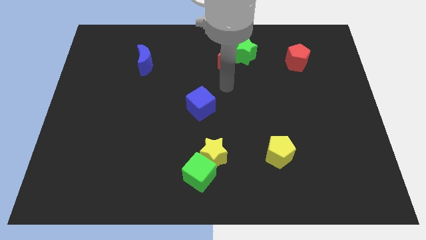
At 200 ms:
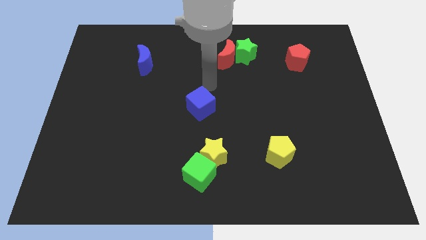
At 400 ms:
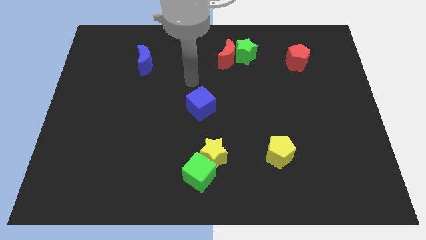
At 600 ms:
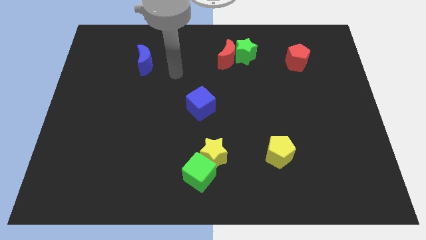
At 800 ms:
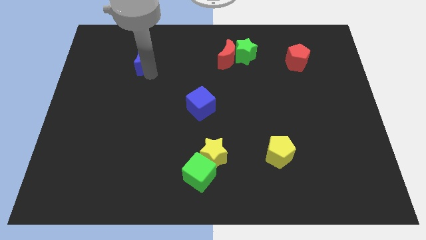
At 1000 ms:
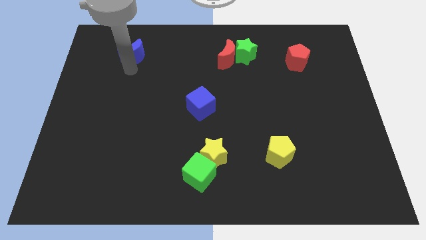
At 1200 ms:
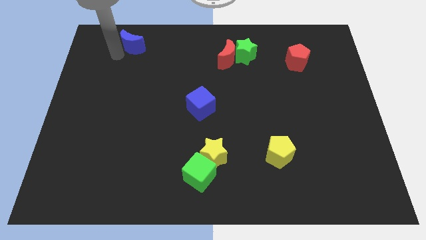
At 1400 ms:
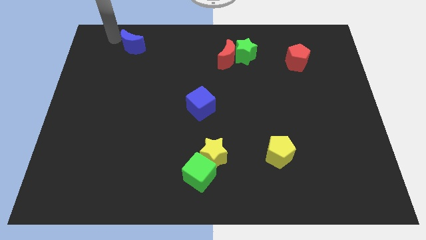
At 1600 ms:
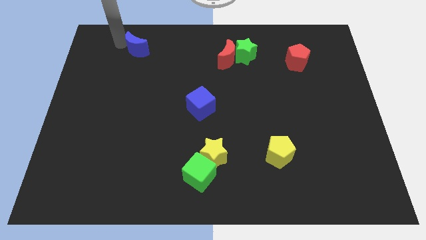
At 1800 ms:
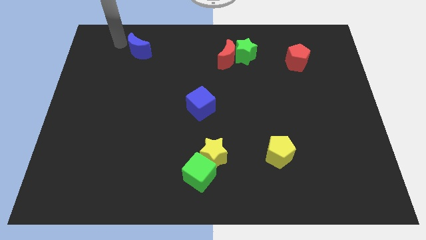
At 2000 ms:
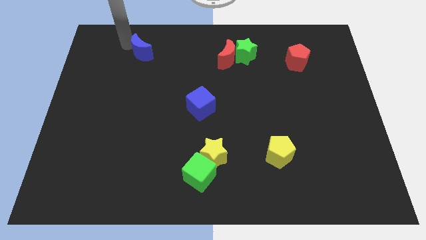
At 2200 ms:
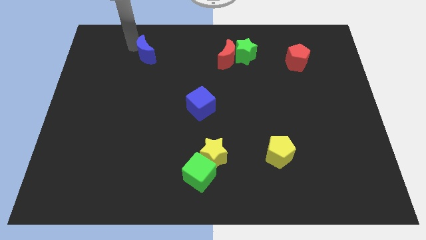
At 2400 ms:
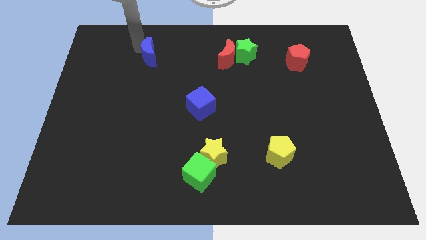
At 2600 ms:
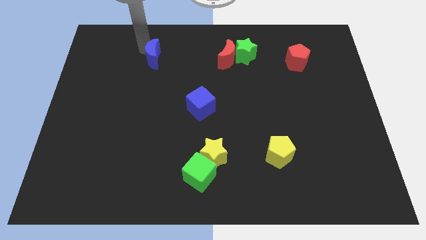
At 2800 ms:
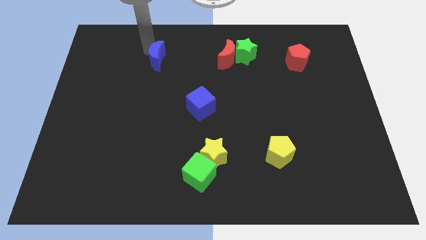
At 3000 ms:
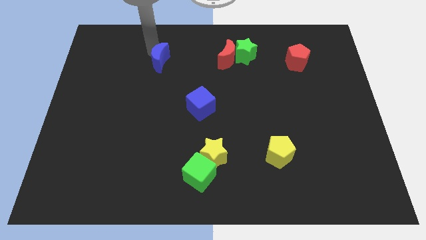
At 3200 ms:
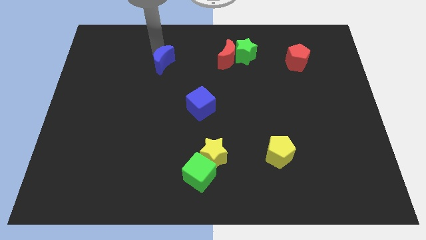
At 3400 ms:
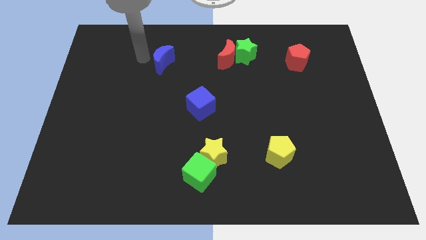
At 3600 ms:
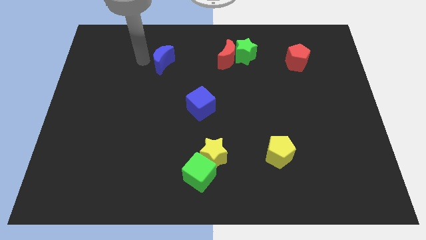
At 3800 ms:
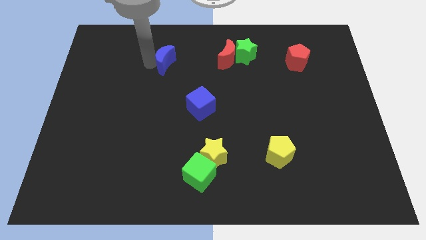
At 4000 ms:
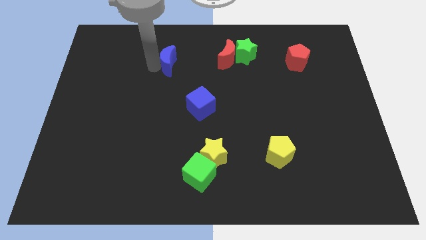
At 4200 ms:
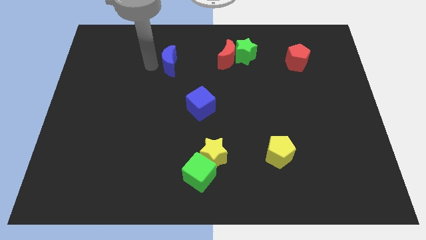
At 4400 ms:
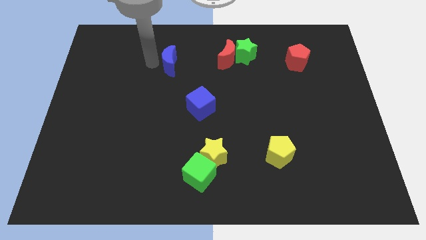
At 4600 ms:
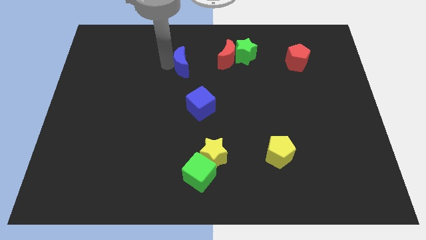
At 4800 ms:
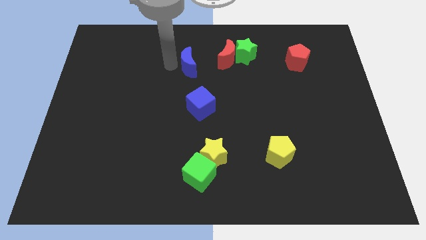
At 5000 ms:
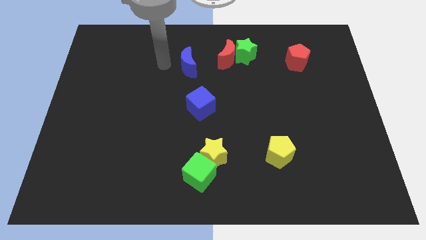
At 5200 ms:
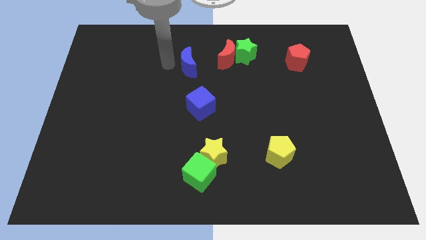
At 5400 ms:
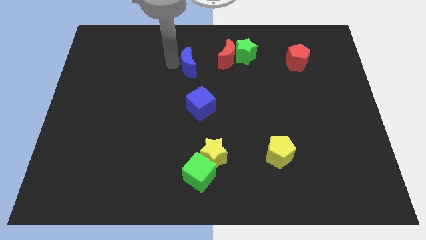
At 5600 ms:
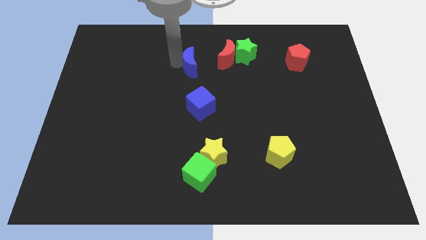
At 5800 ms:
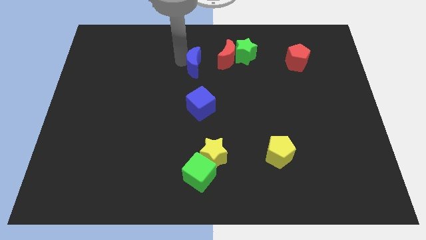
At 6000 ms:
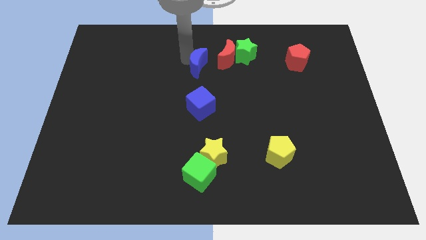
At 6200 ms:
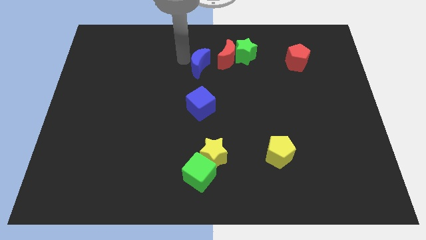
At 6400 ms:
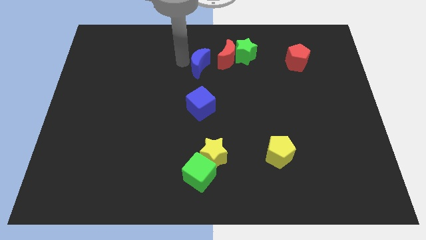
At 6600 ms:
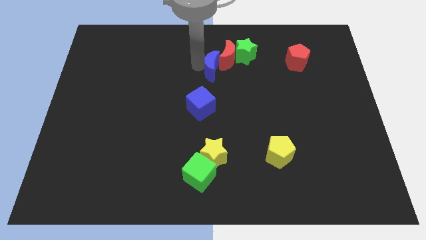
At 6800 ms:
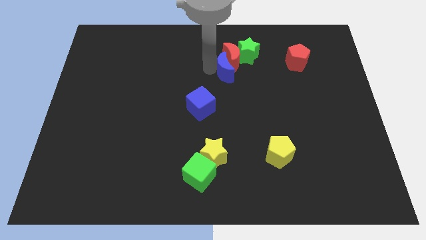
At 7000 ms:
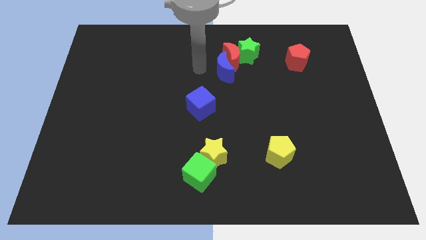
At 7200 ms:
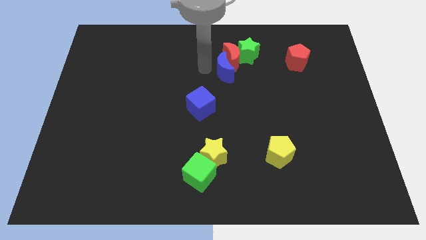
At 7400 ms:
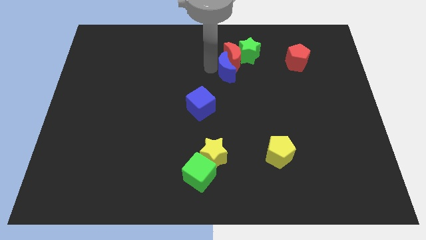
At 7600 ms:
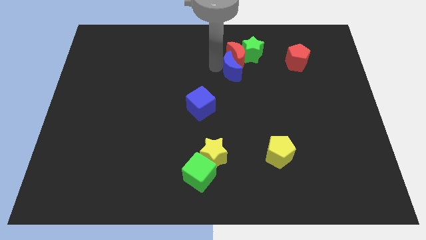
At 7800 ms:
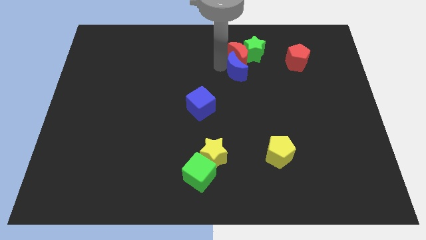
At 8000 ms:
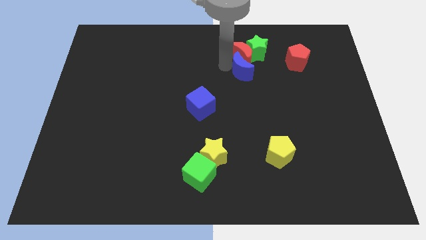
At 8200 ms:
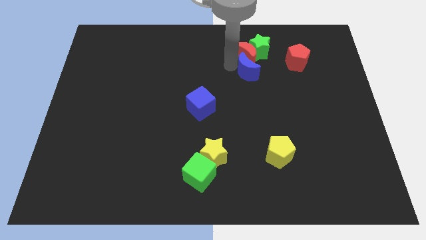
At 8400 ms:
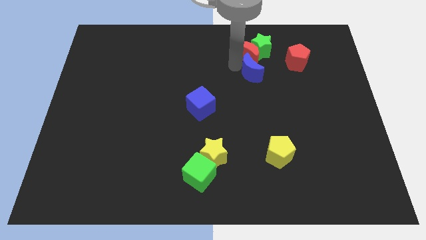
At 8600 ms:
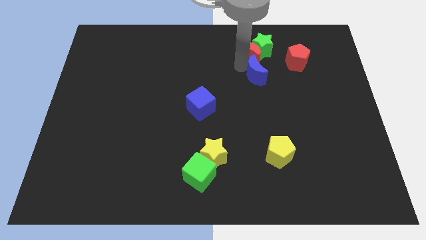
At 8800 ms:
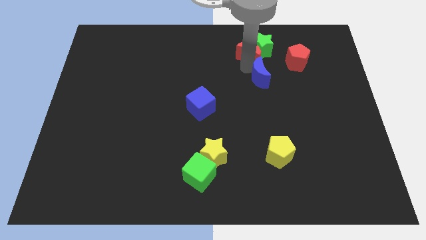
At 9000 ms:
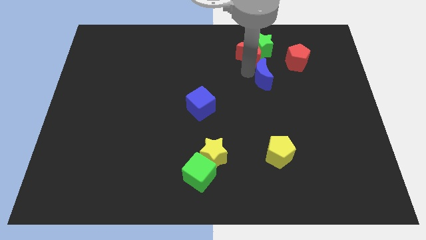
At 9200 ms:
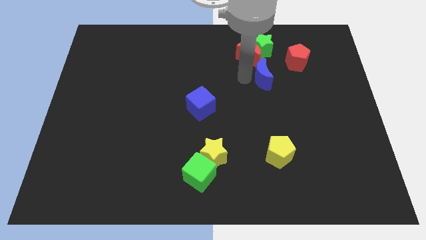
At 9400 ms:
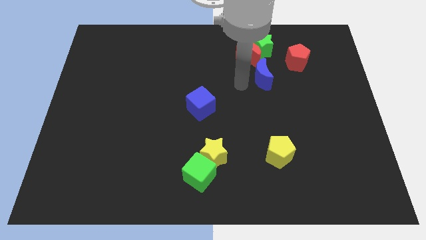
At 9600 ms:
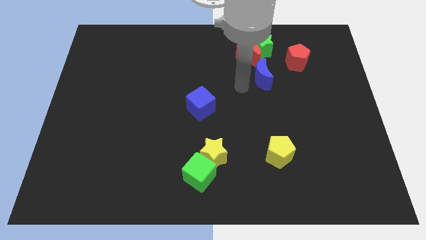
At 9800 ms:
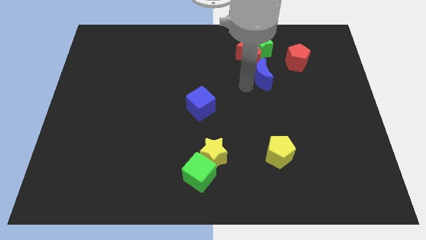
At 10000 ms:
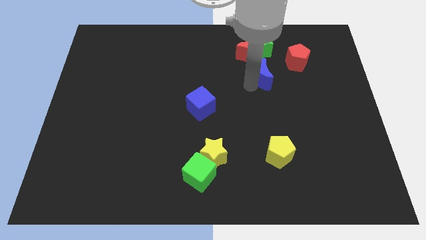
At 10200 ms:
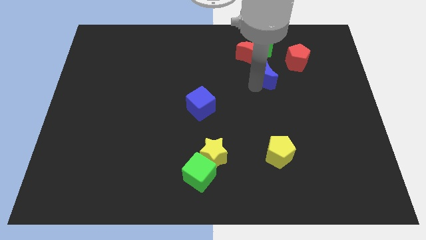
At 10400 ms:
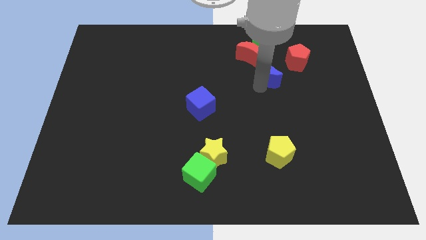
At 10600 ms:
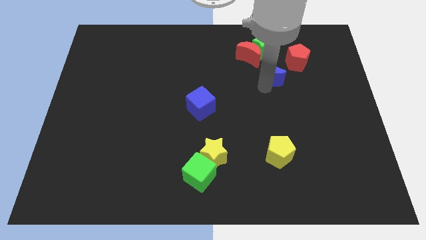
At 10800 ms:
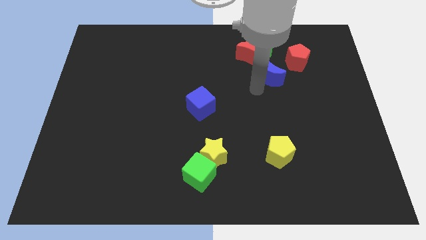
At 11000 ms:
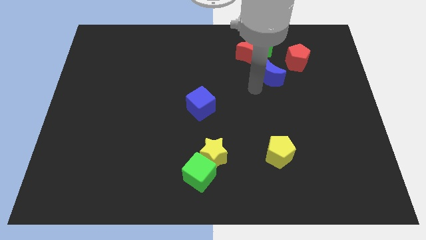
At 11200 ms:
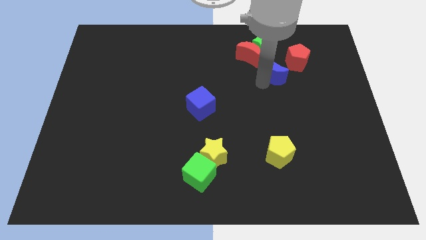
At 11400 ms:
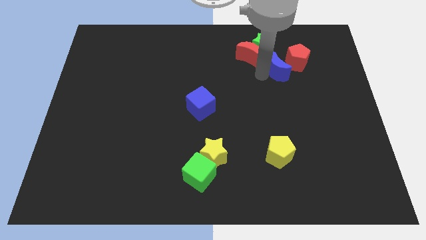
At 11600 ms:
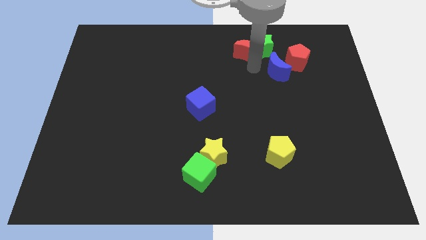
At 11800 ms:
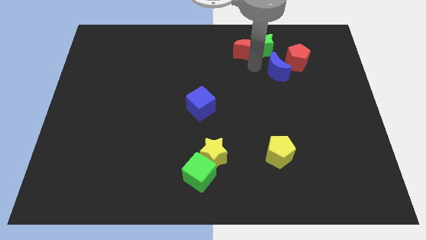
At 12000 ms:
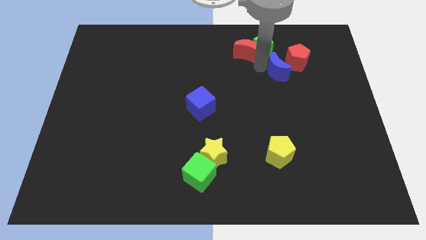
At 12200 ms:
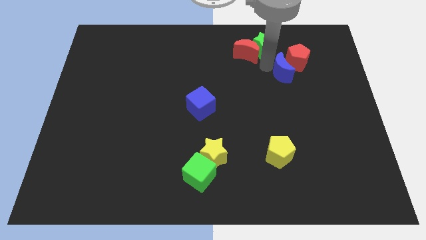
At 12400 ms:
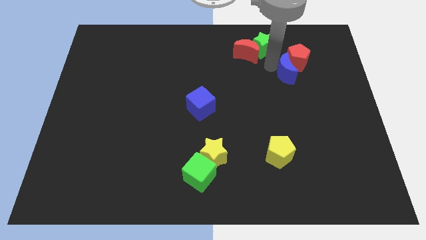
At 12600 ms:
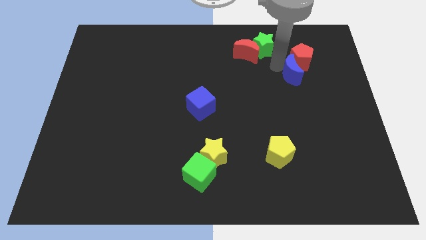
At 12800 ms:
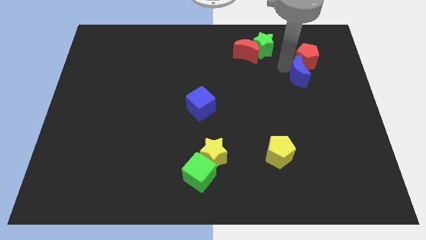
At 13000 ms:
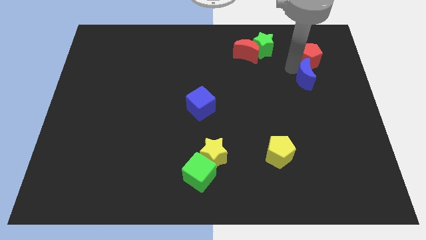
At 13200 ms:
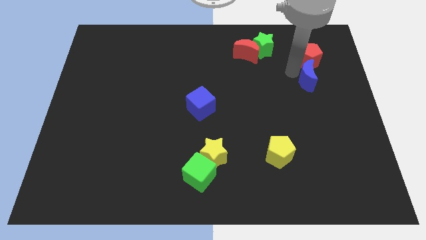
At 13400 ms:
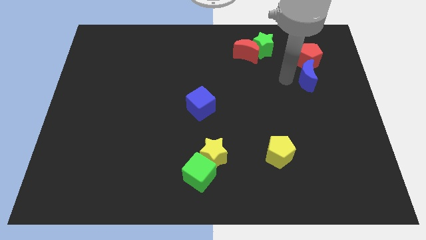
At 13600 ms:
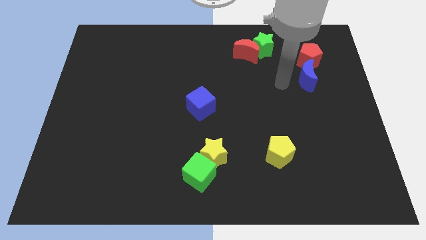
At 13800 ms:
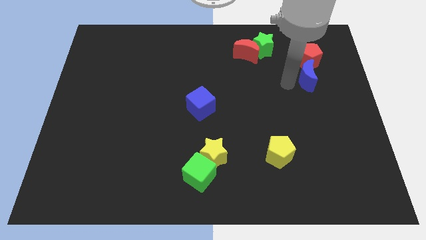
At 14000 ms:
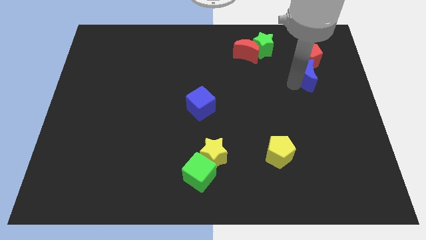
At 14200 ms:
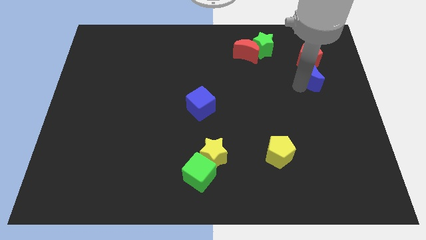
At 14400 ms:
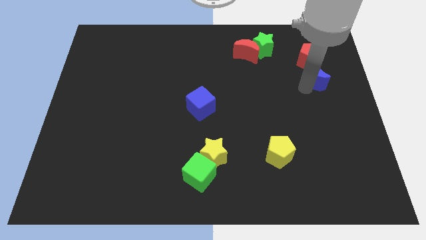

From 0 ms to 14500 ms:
push the blue moon diagonally down and to the right of the red pentagon

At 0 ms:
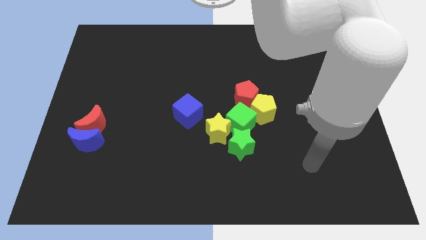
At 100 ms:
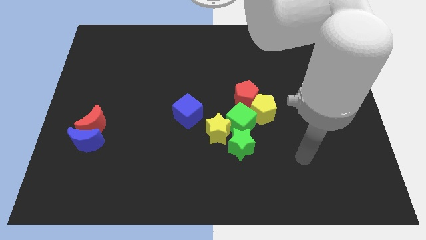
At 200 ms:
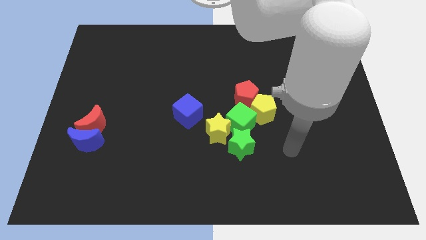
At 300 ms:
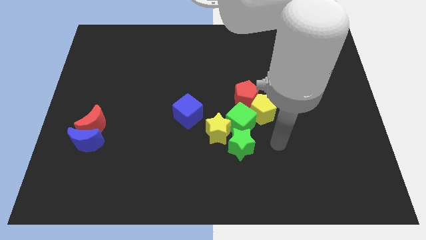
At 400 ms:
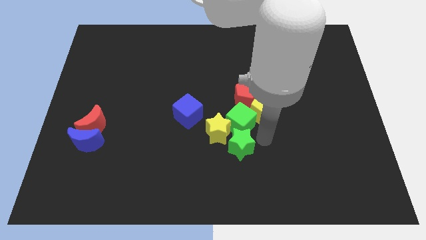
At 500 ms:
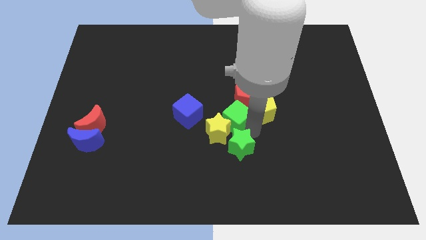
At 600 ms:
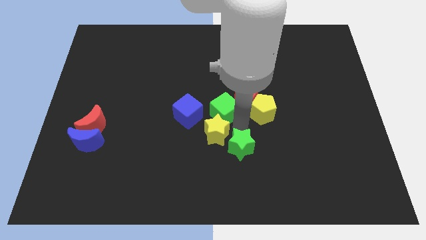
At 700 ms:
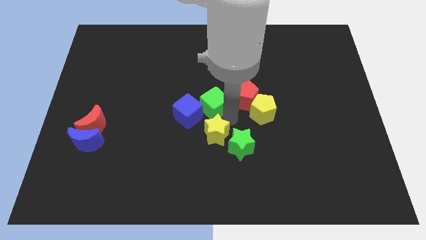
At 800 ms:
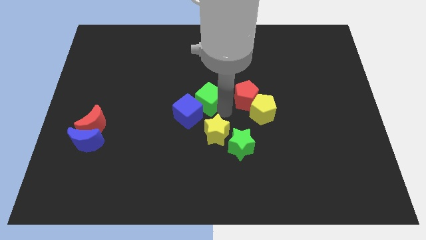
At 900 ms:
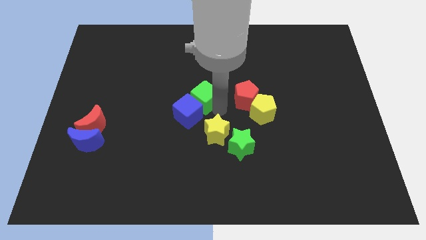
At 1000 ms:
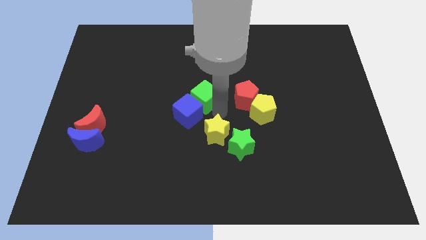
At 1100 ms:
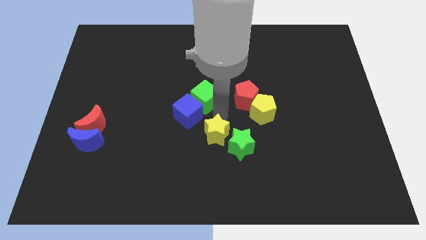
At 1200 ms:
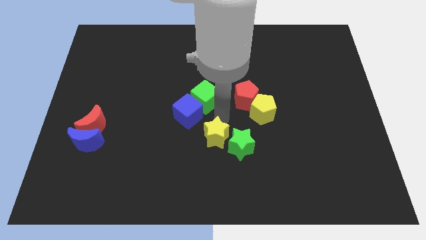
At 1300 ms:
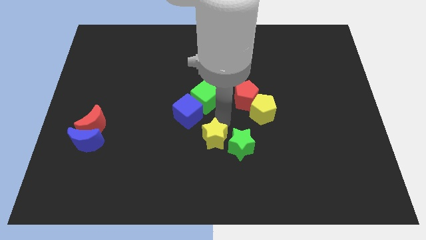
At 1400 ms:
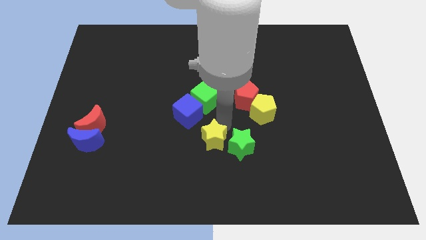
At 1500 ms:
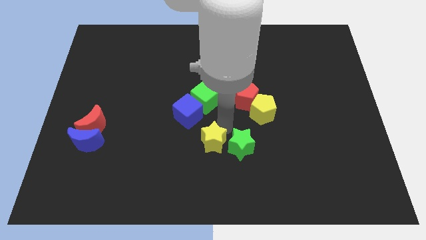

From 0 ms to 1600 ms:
put the yellow star to the bottom left of the green star
